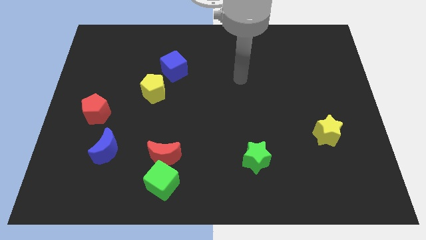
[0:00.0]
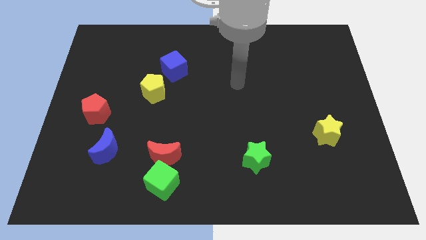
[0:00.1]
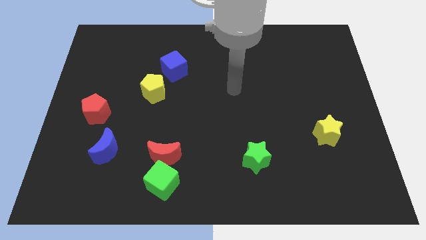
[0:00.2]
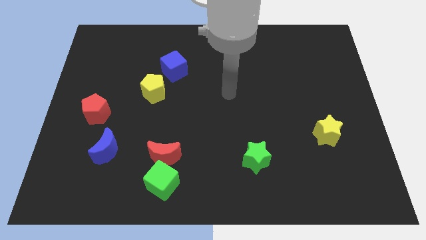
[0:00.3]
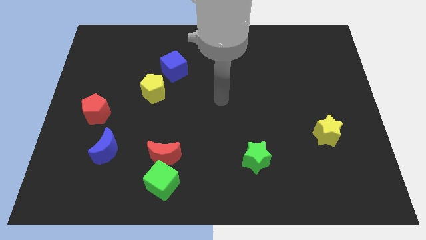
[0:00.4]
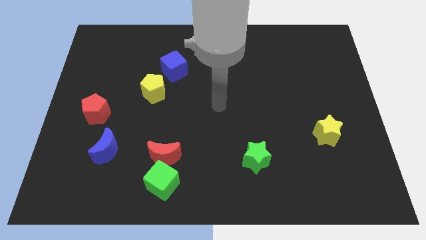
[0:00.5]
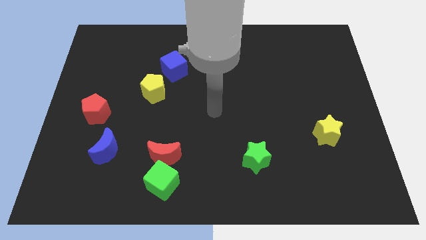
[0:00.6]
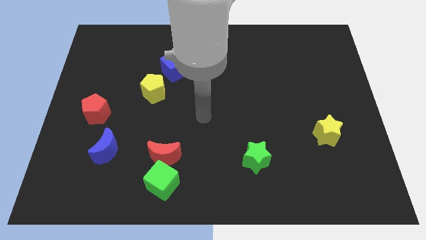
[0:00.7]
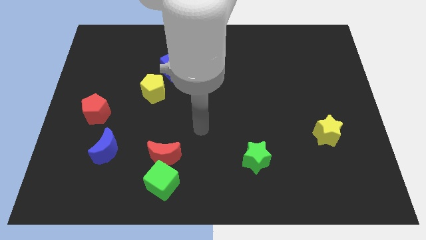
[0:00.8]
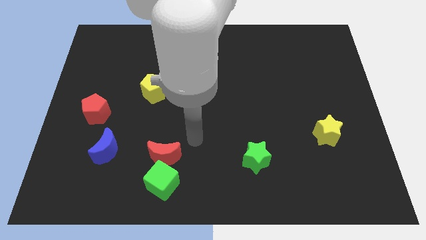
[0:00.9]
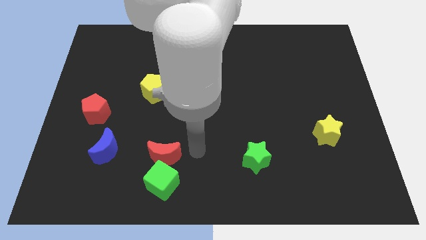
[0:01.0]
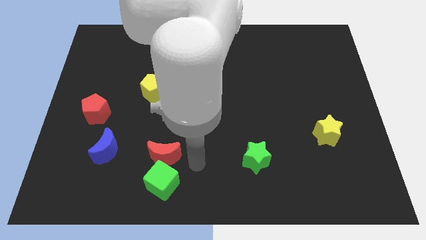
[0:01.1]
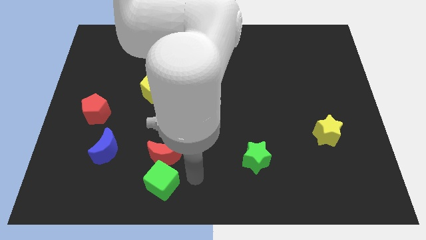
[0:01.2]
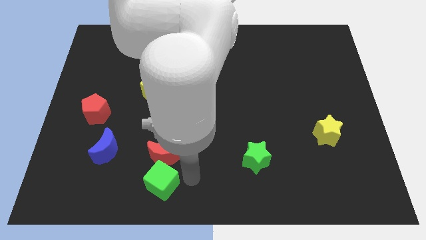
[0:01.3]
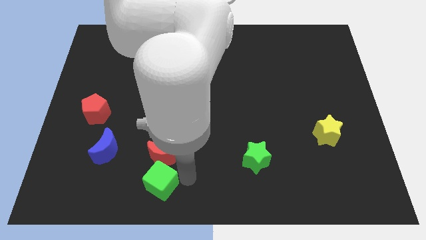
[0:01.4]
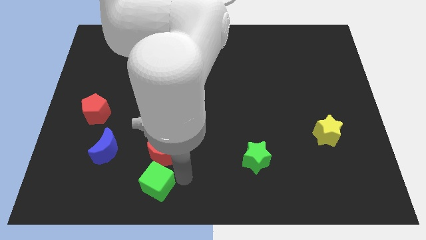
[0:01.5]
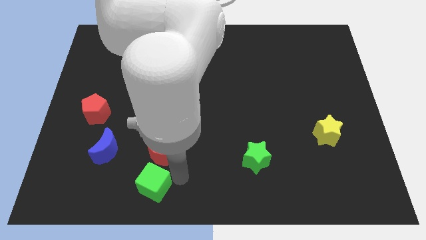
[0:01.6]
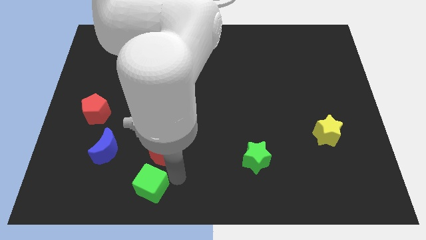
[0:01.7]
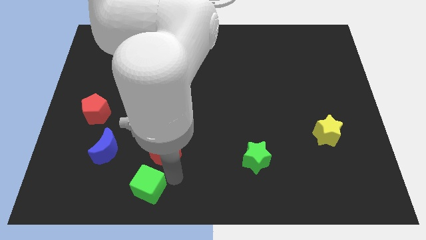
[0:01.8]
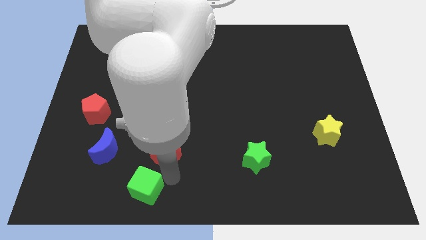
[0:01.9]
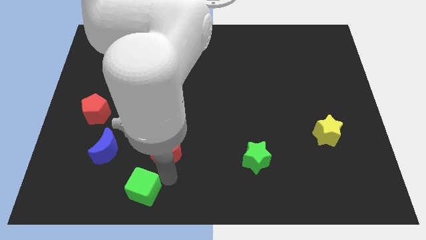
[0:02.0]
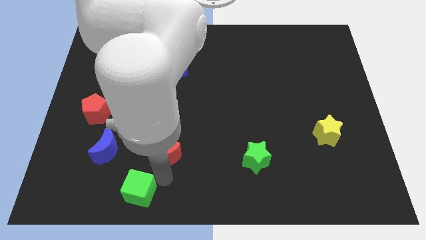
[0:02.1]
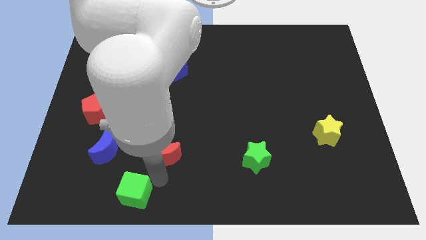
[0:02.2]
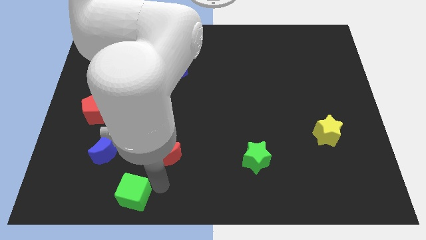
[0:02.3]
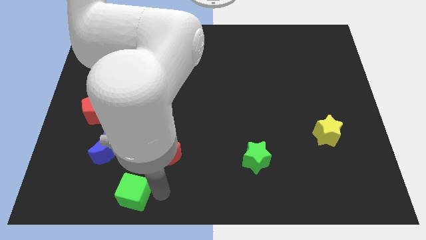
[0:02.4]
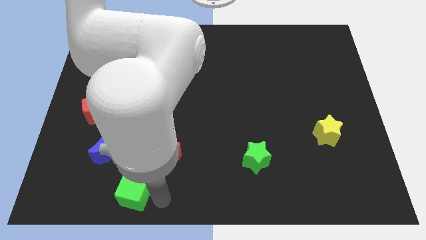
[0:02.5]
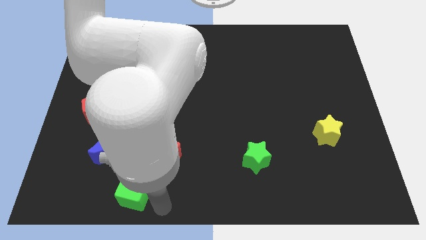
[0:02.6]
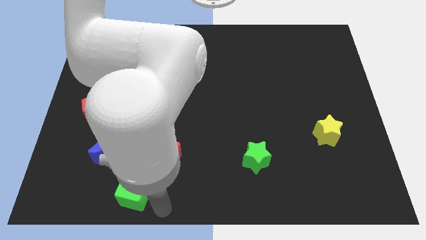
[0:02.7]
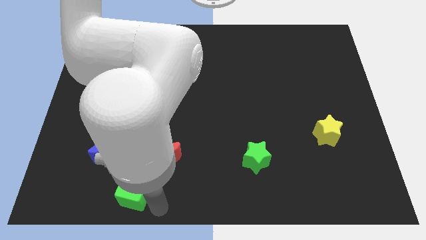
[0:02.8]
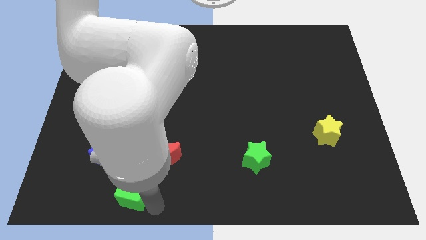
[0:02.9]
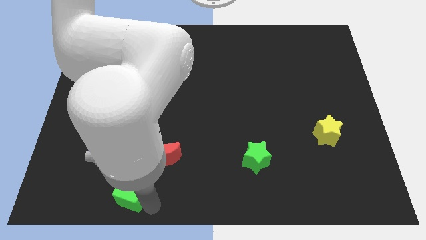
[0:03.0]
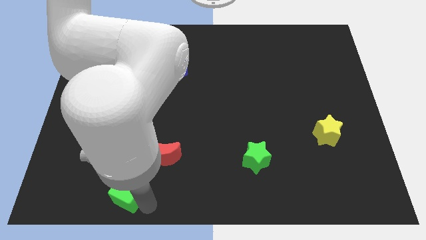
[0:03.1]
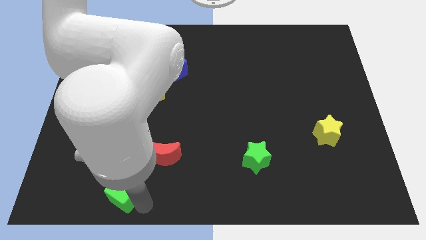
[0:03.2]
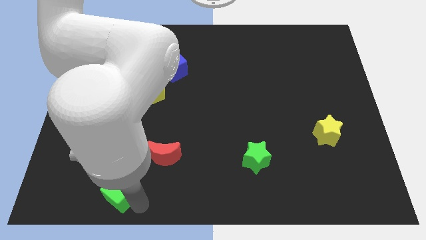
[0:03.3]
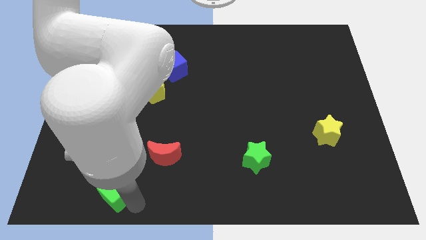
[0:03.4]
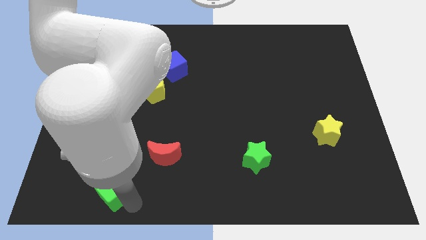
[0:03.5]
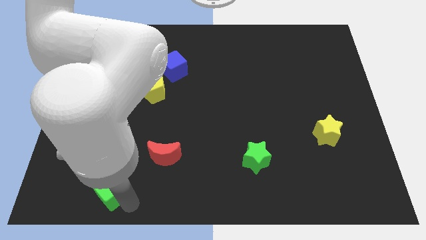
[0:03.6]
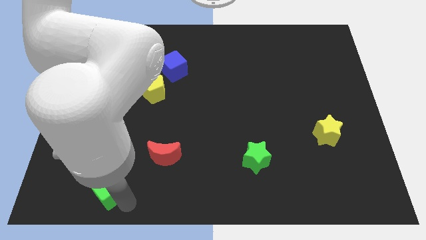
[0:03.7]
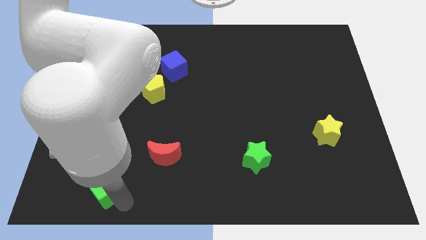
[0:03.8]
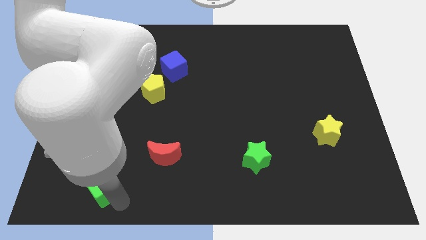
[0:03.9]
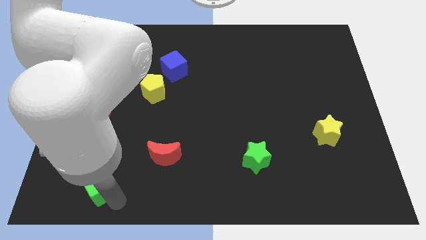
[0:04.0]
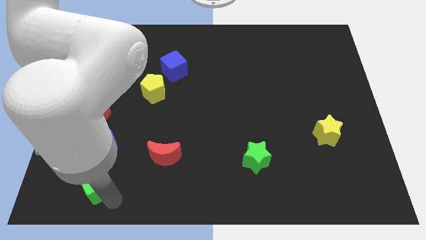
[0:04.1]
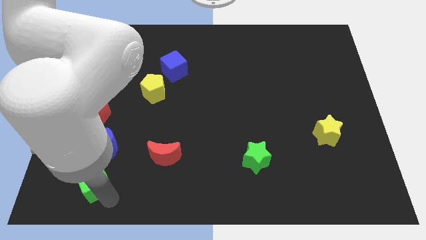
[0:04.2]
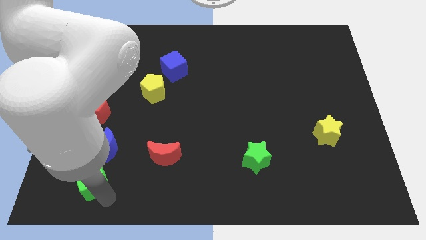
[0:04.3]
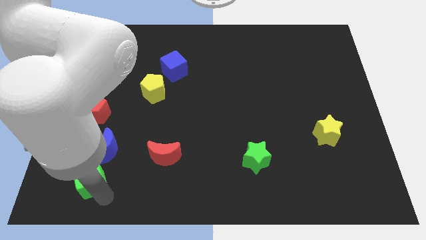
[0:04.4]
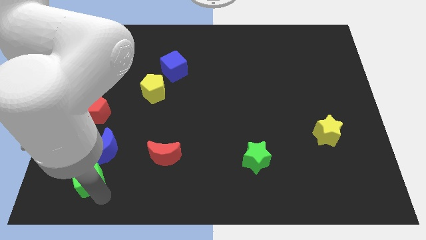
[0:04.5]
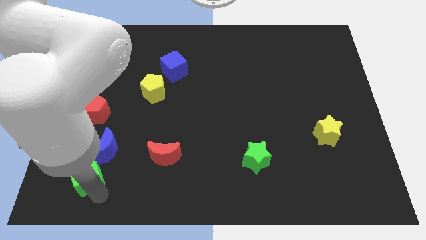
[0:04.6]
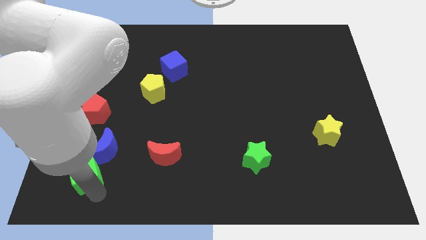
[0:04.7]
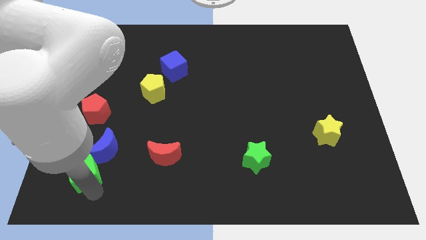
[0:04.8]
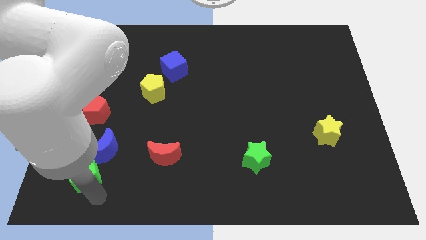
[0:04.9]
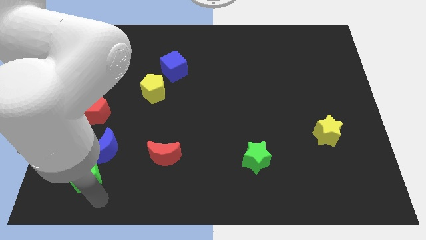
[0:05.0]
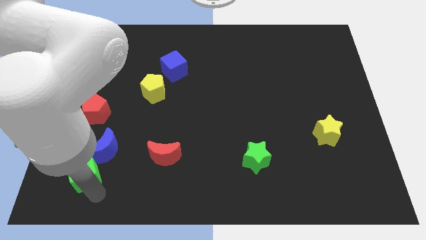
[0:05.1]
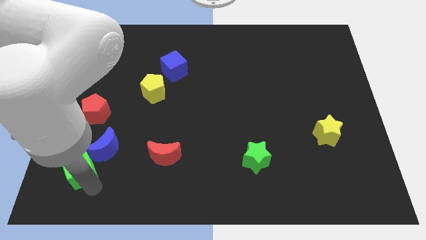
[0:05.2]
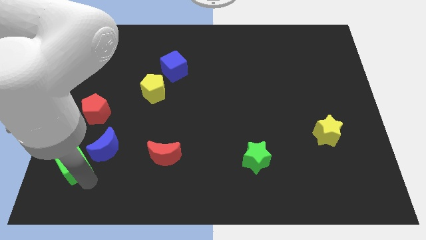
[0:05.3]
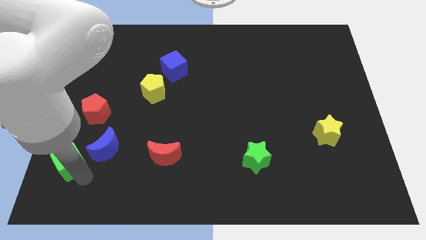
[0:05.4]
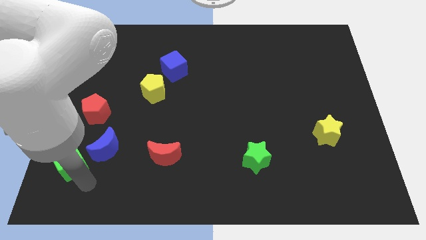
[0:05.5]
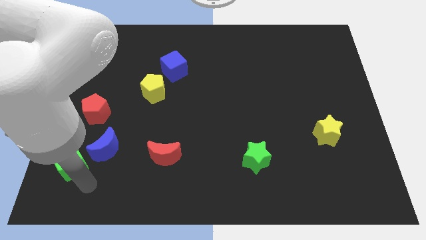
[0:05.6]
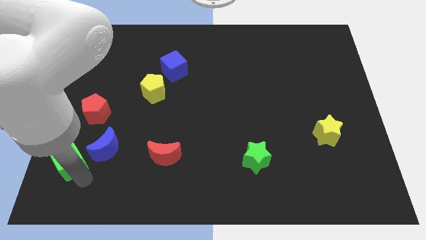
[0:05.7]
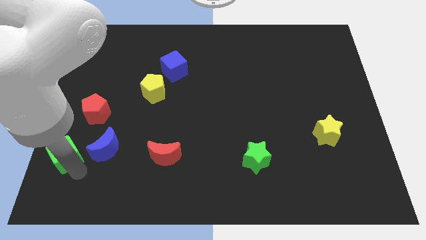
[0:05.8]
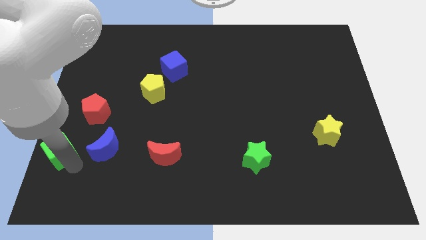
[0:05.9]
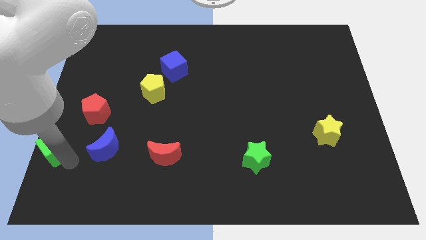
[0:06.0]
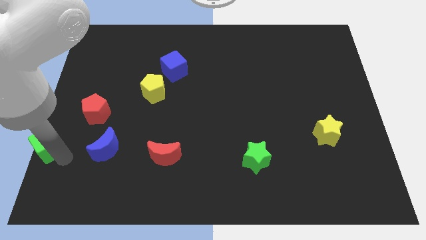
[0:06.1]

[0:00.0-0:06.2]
move the green cube to the left side
